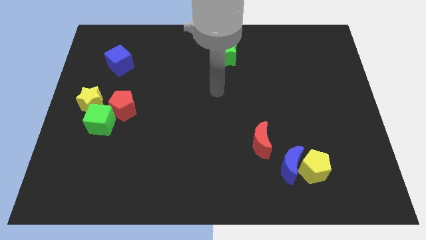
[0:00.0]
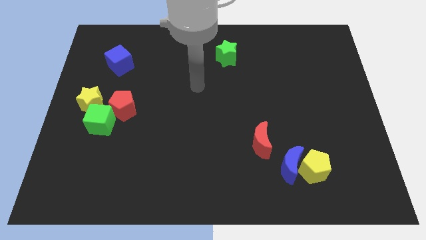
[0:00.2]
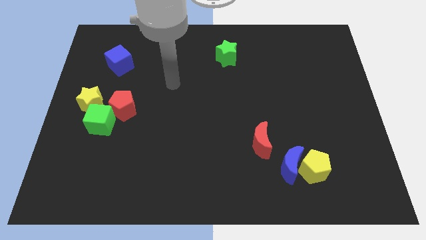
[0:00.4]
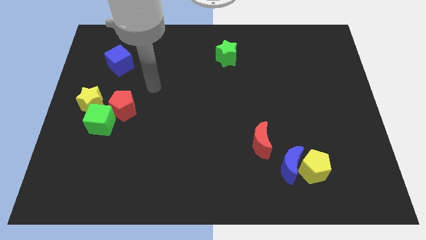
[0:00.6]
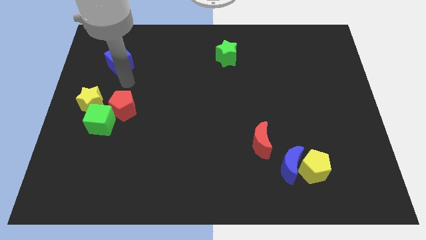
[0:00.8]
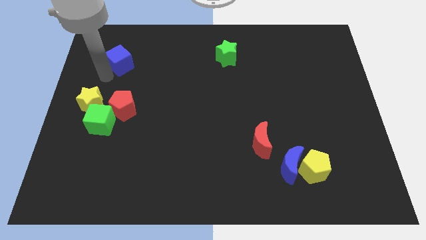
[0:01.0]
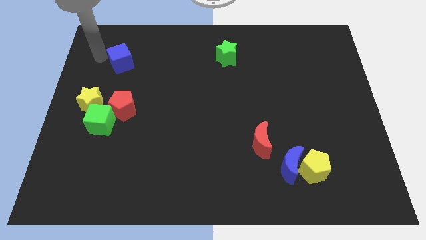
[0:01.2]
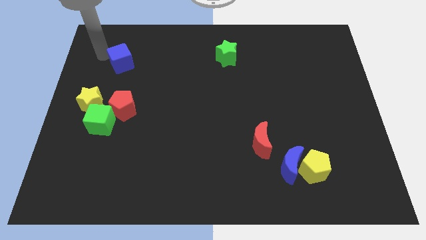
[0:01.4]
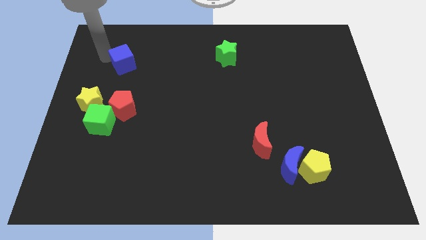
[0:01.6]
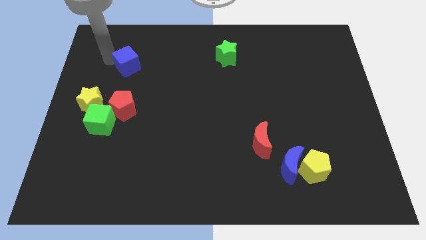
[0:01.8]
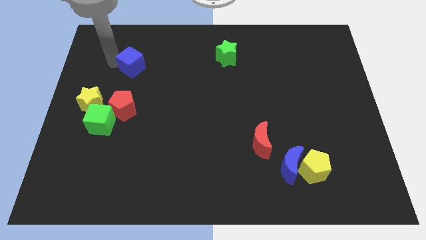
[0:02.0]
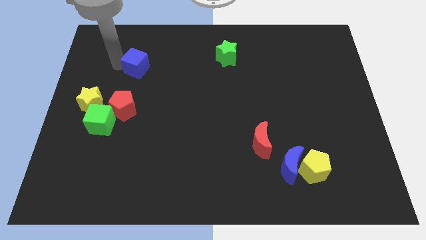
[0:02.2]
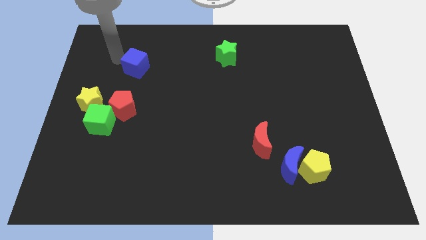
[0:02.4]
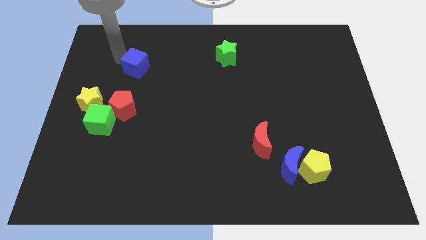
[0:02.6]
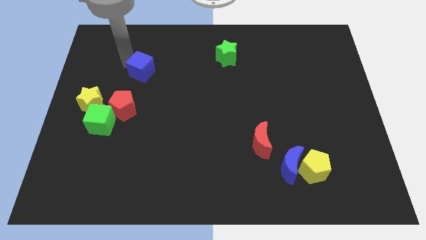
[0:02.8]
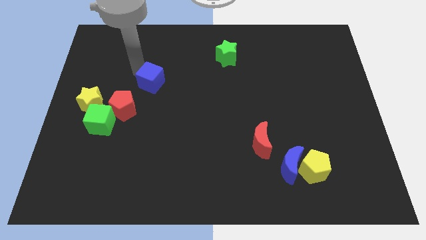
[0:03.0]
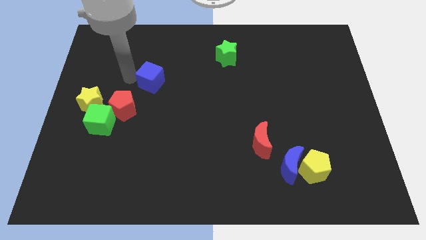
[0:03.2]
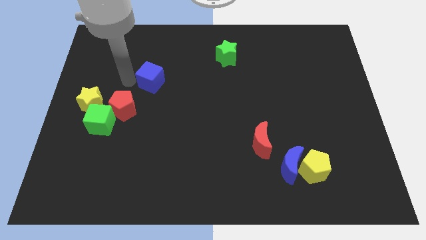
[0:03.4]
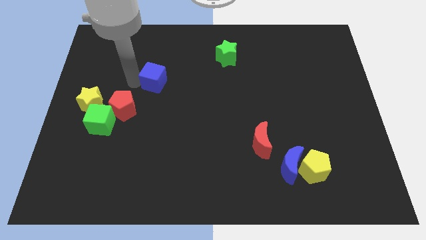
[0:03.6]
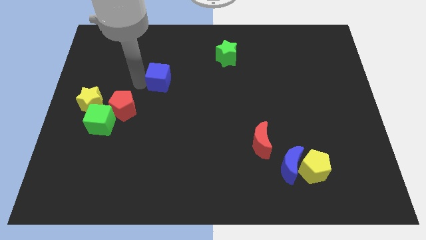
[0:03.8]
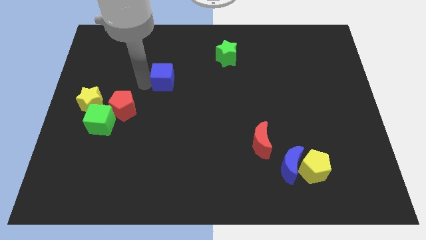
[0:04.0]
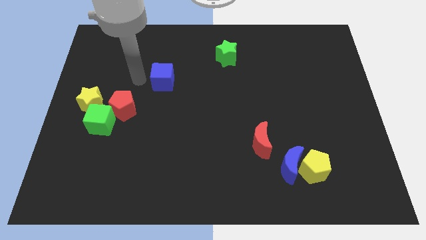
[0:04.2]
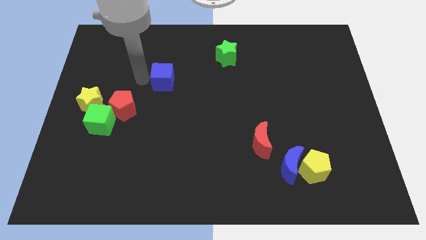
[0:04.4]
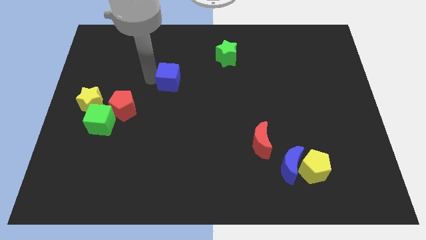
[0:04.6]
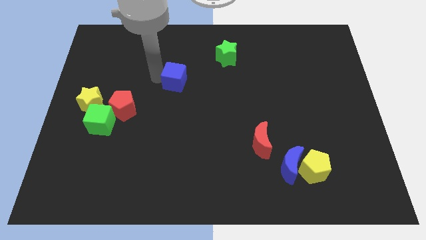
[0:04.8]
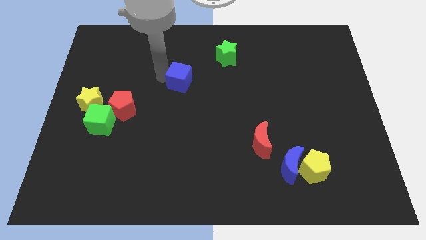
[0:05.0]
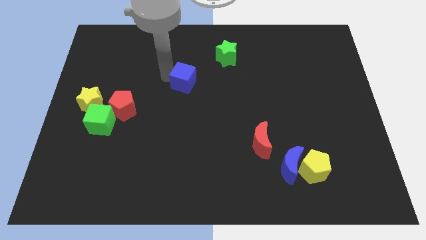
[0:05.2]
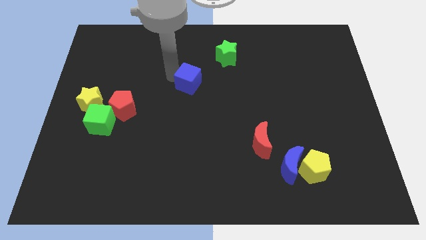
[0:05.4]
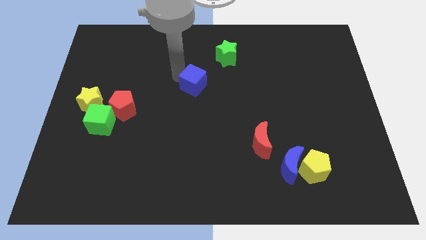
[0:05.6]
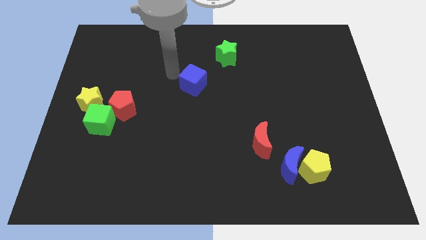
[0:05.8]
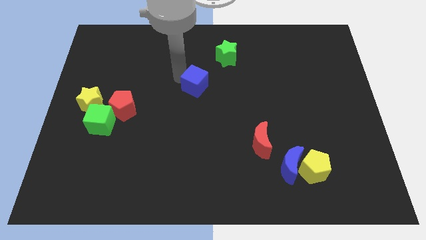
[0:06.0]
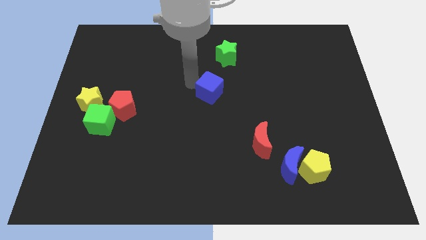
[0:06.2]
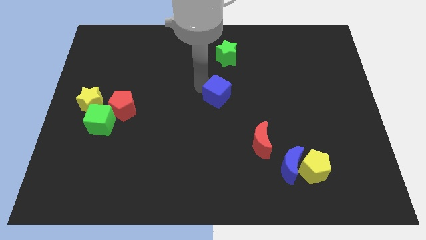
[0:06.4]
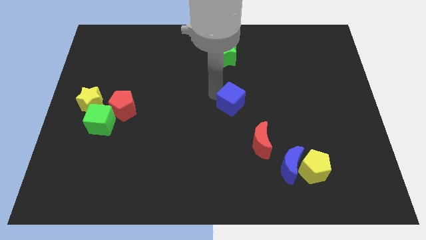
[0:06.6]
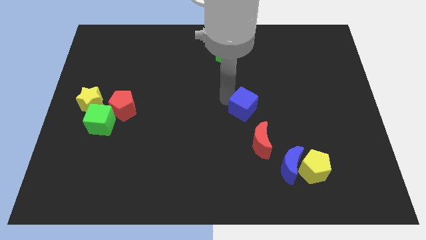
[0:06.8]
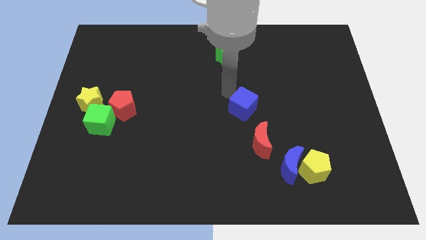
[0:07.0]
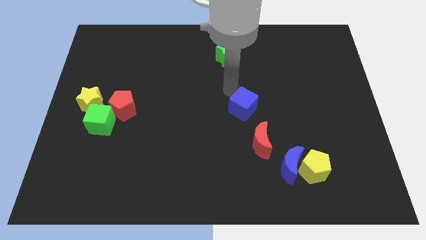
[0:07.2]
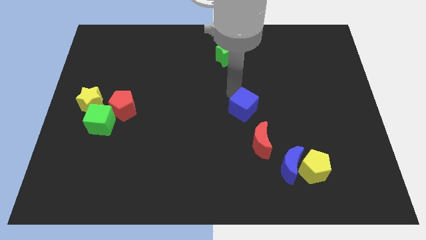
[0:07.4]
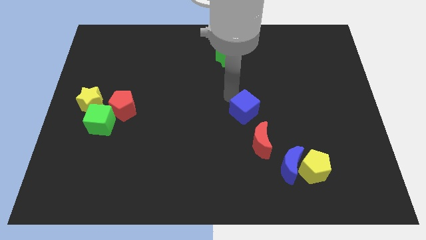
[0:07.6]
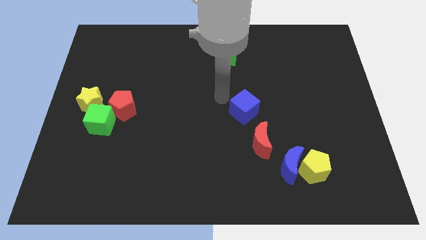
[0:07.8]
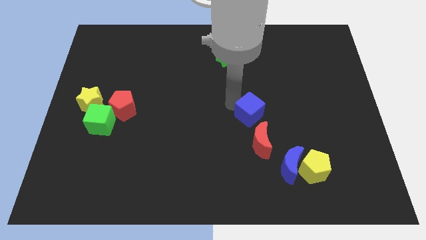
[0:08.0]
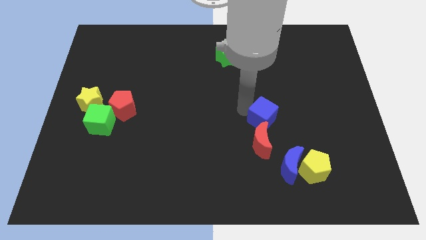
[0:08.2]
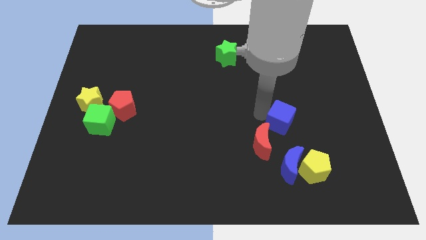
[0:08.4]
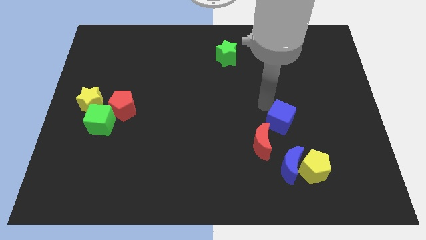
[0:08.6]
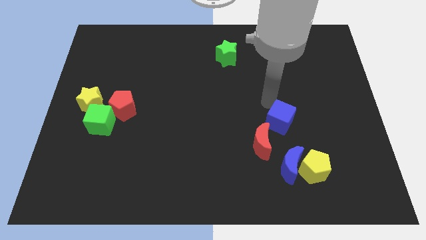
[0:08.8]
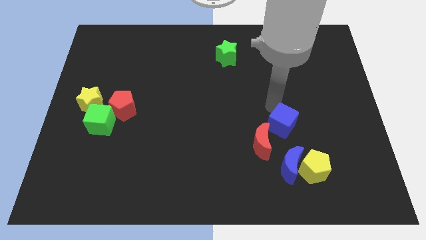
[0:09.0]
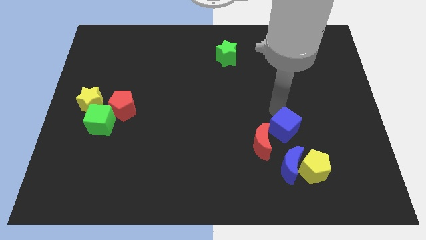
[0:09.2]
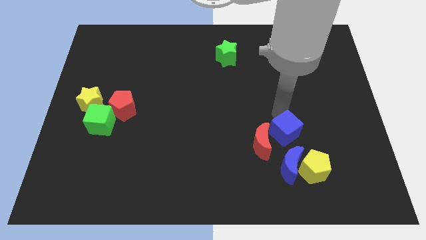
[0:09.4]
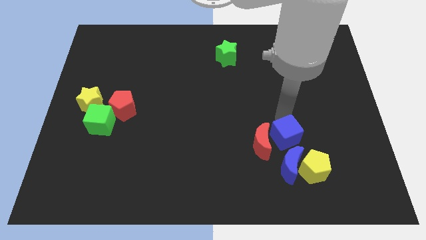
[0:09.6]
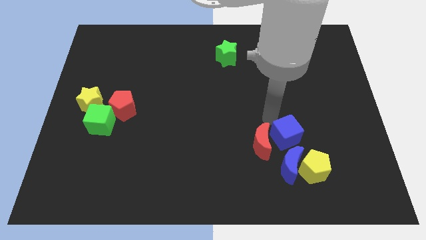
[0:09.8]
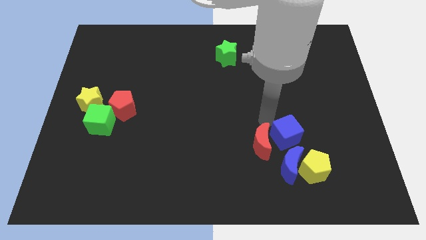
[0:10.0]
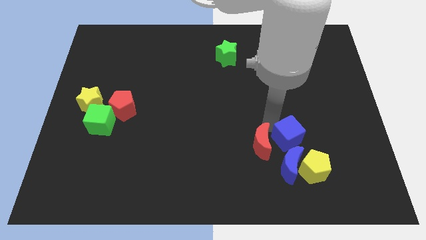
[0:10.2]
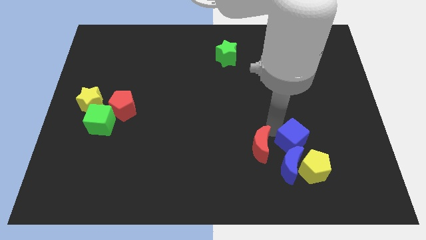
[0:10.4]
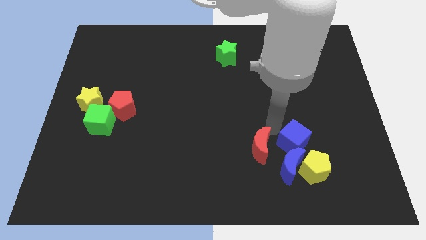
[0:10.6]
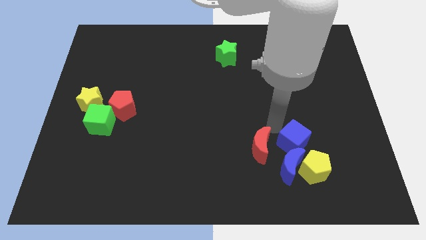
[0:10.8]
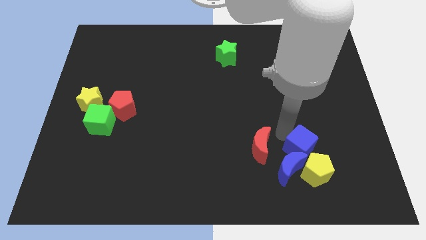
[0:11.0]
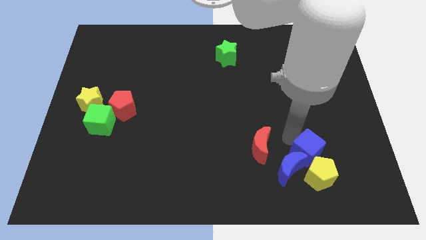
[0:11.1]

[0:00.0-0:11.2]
slide the blue cube towards the yellow pentagon
